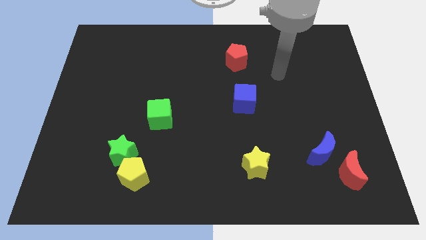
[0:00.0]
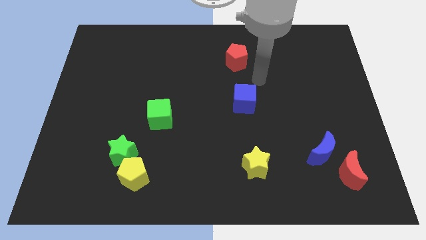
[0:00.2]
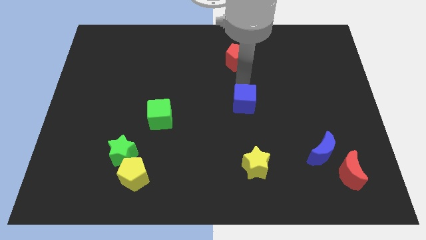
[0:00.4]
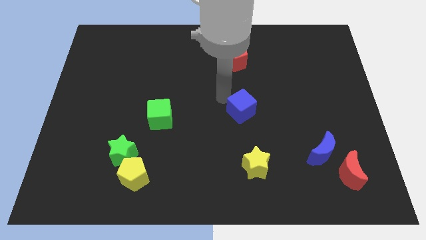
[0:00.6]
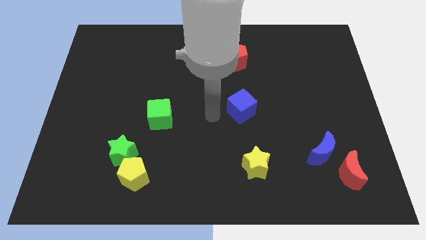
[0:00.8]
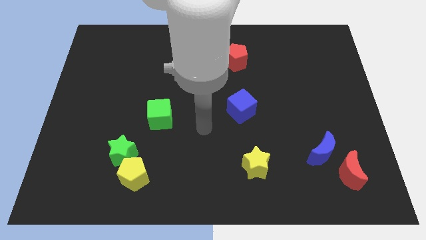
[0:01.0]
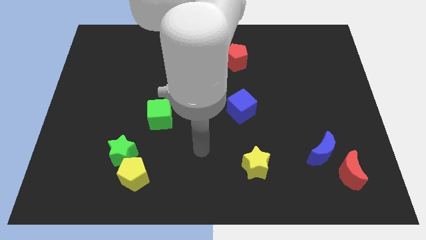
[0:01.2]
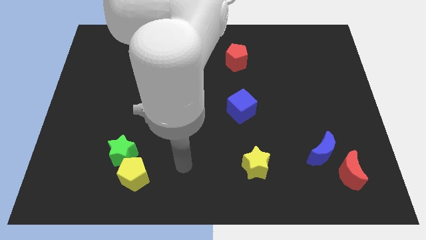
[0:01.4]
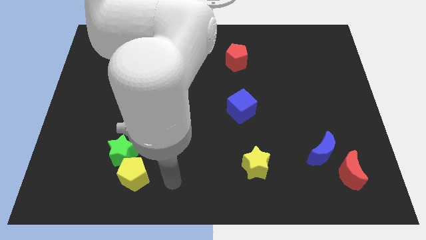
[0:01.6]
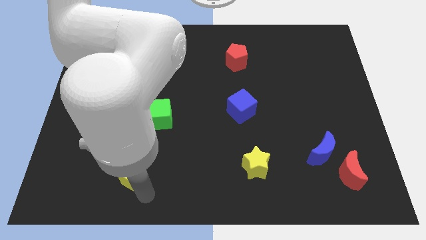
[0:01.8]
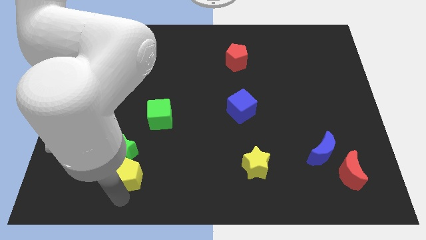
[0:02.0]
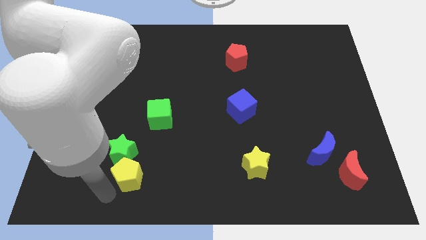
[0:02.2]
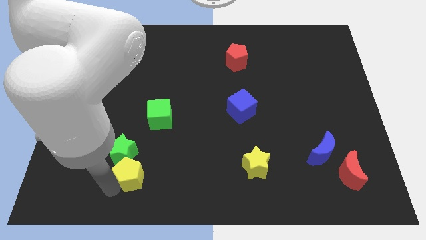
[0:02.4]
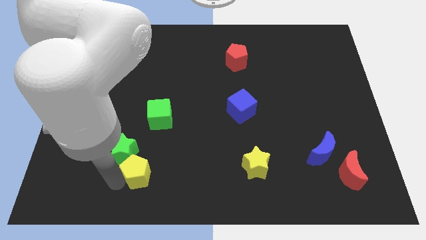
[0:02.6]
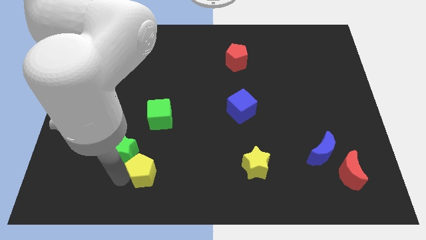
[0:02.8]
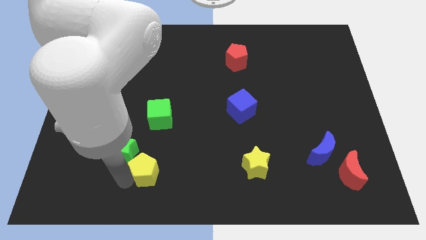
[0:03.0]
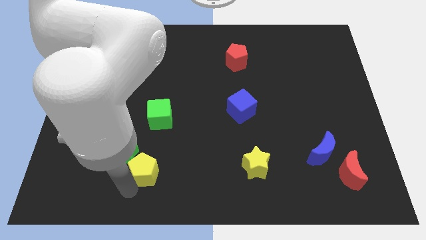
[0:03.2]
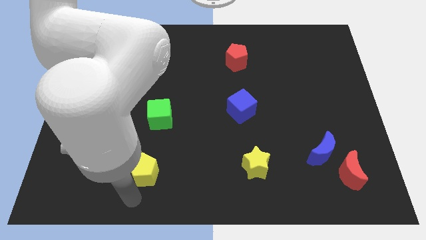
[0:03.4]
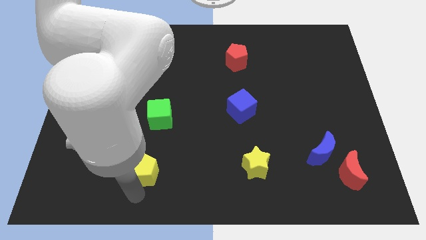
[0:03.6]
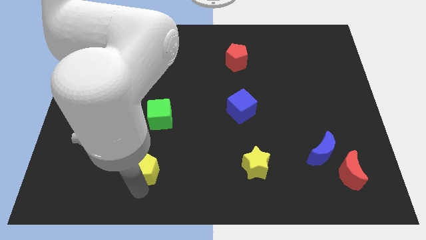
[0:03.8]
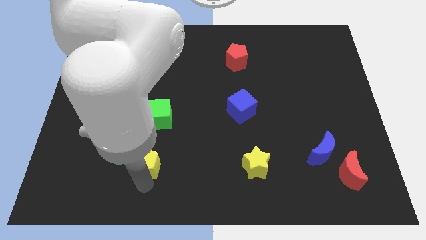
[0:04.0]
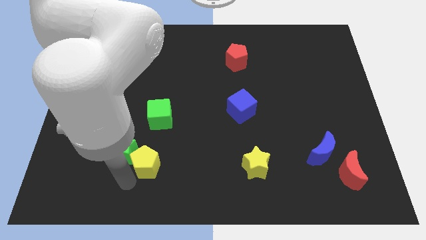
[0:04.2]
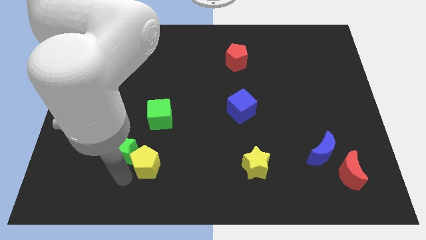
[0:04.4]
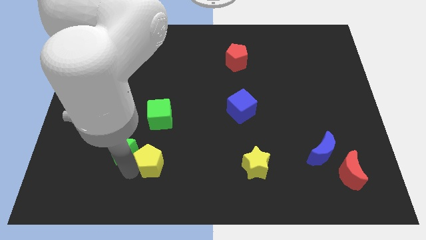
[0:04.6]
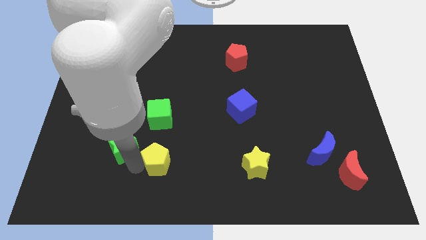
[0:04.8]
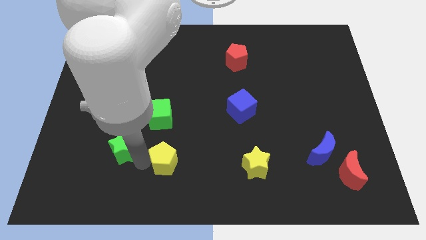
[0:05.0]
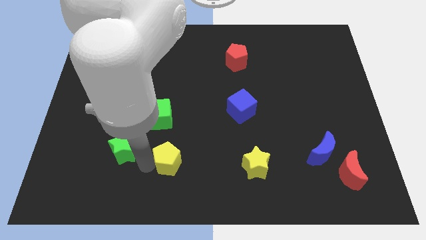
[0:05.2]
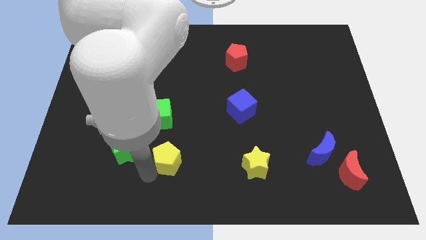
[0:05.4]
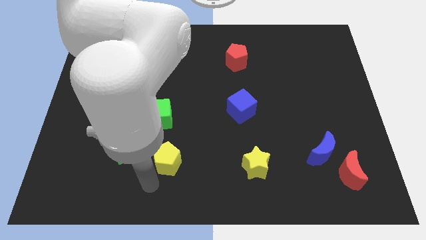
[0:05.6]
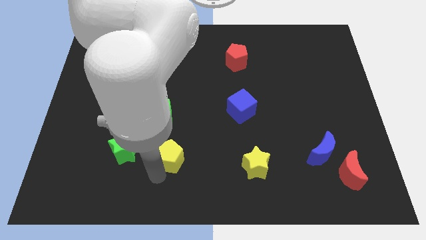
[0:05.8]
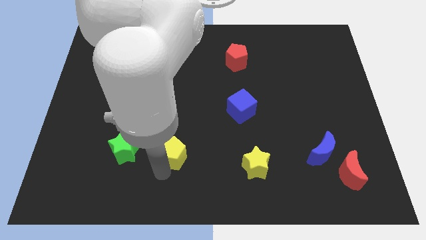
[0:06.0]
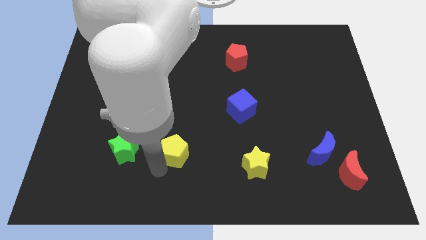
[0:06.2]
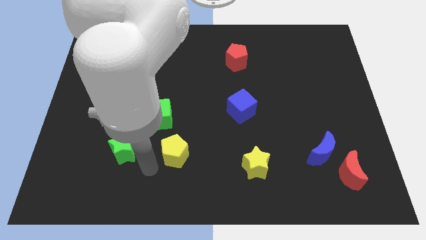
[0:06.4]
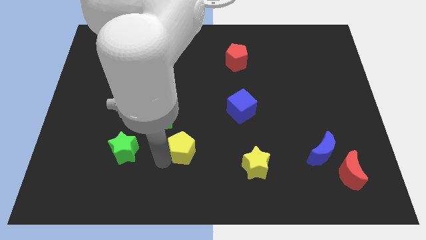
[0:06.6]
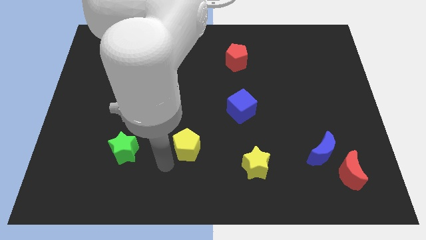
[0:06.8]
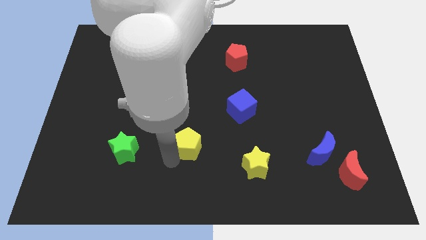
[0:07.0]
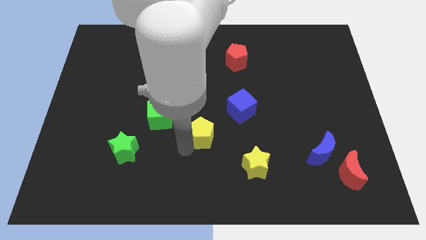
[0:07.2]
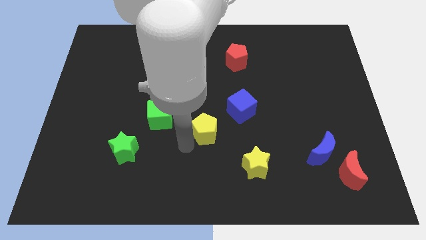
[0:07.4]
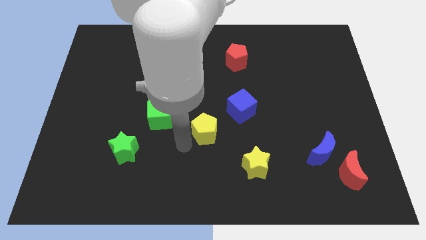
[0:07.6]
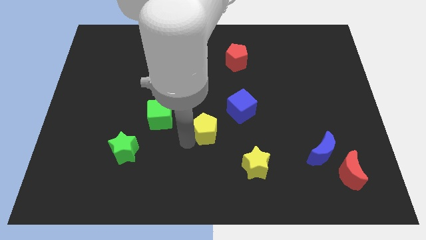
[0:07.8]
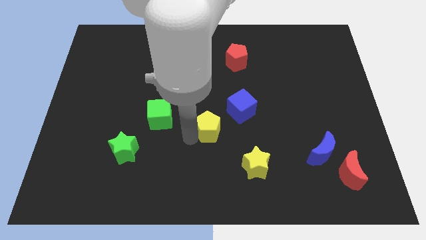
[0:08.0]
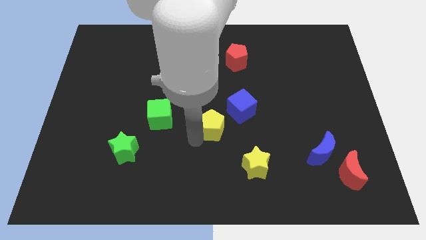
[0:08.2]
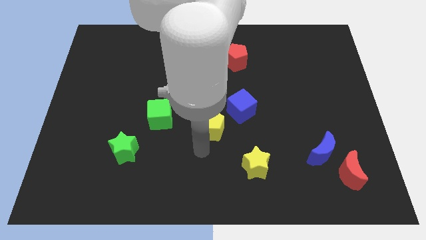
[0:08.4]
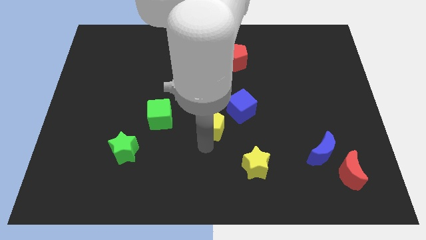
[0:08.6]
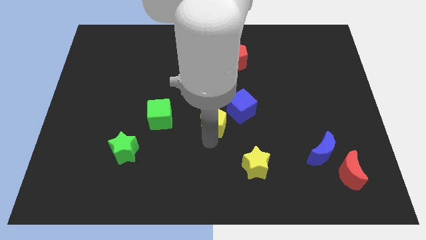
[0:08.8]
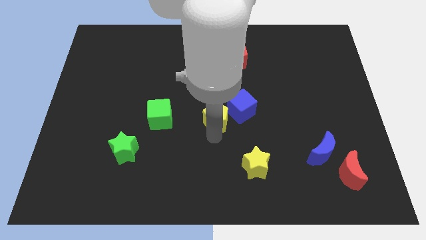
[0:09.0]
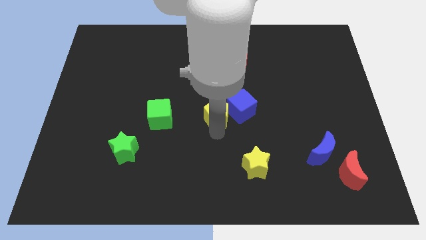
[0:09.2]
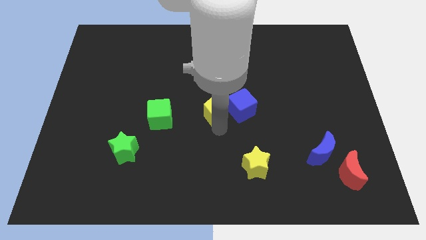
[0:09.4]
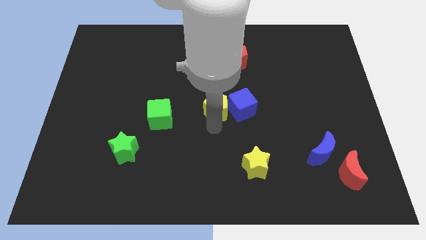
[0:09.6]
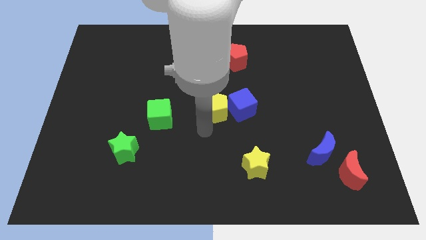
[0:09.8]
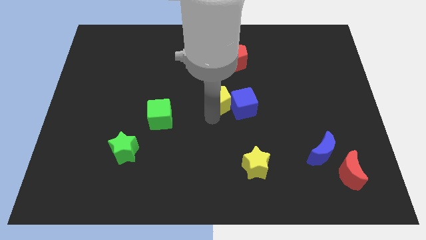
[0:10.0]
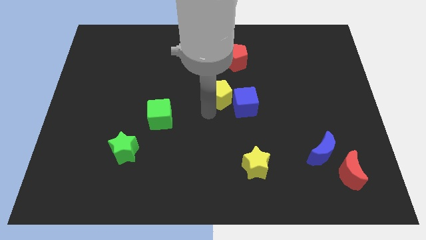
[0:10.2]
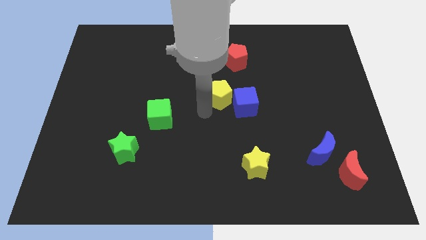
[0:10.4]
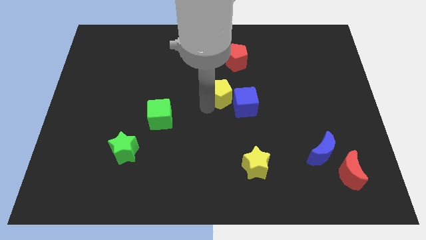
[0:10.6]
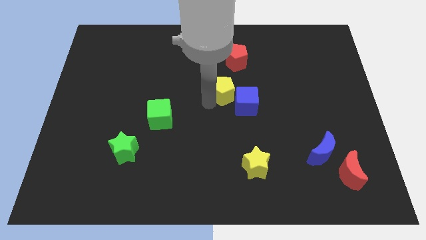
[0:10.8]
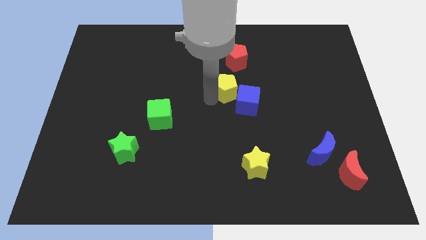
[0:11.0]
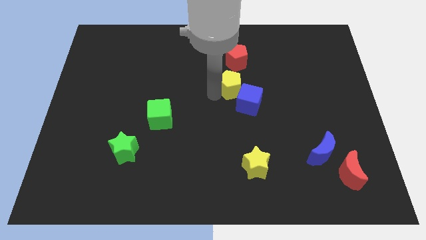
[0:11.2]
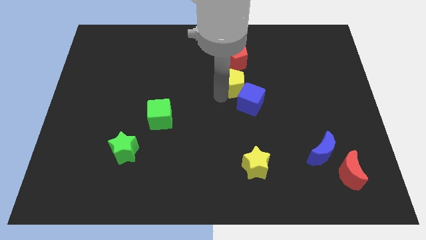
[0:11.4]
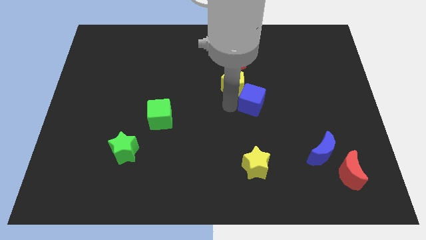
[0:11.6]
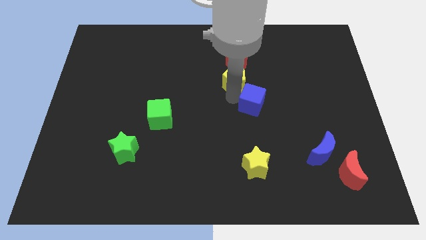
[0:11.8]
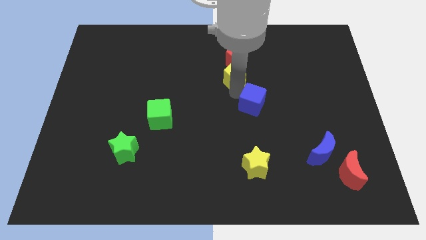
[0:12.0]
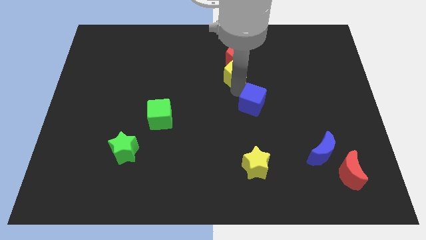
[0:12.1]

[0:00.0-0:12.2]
push the yellow pentagon close to the red pentagon

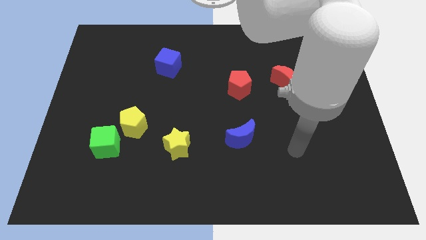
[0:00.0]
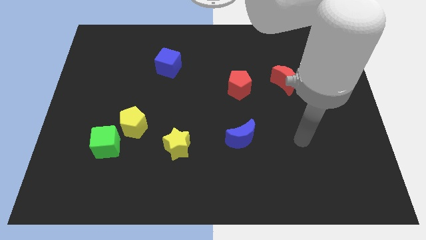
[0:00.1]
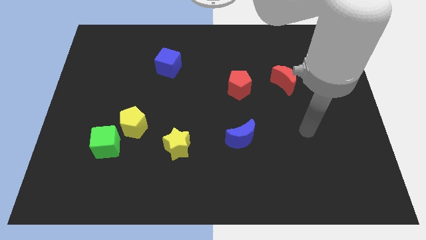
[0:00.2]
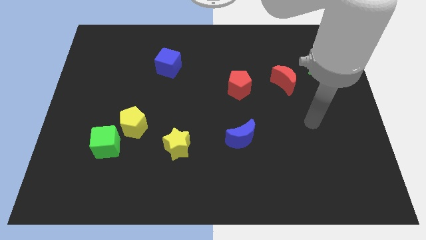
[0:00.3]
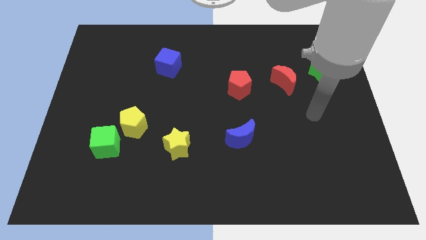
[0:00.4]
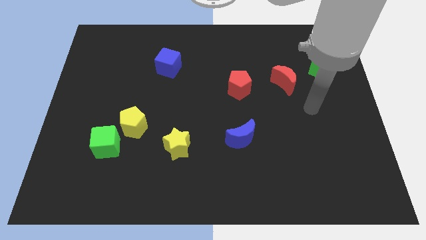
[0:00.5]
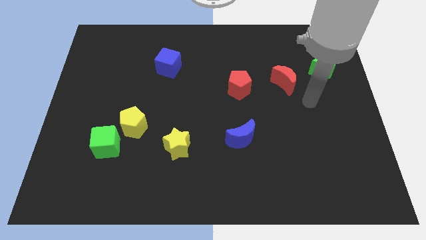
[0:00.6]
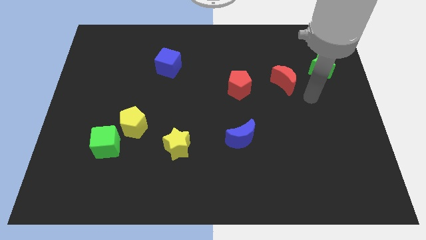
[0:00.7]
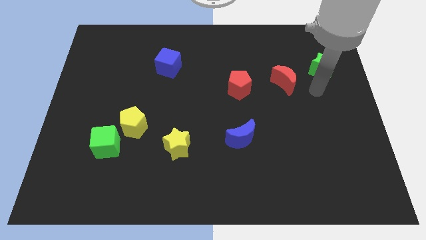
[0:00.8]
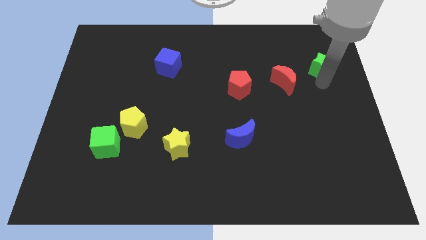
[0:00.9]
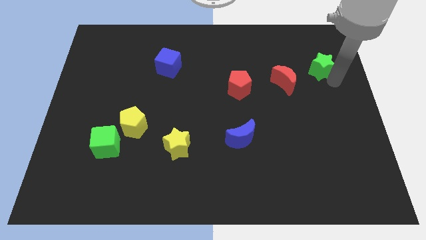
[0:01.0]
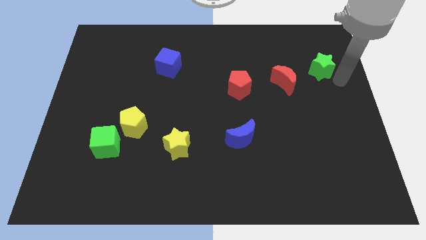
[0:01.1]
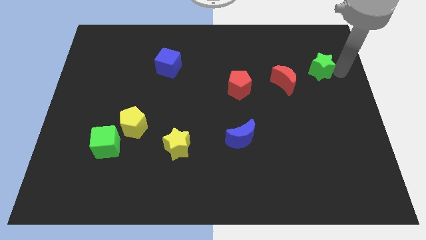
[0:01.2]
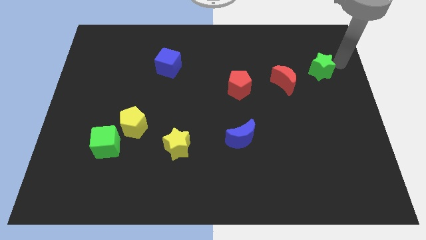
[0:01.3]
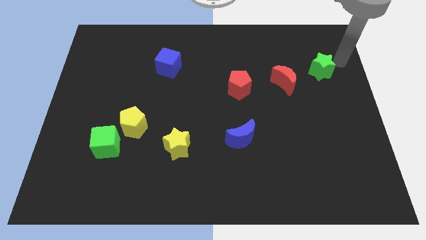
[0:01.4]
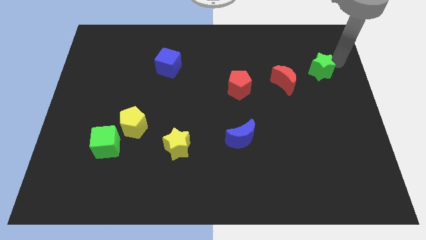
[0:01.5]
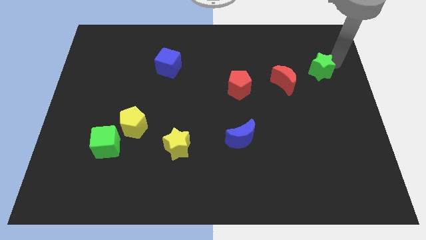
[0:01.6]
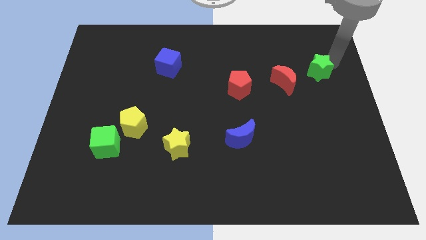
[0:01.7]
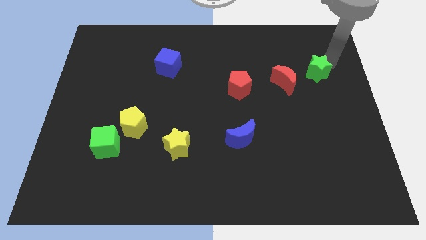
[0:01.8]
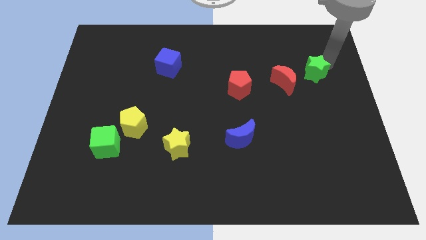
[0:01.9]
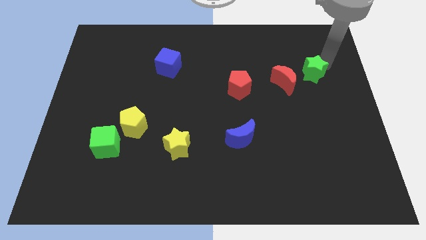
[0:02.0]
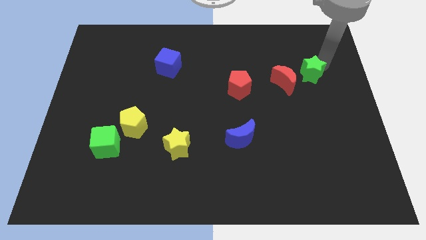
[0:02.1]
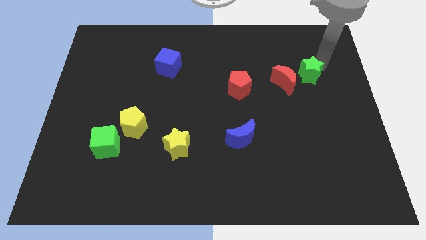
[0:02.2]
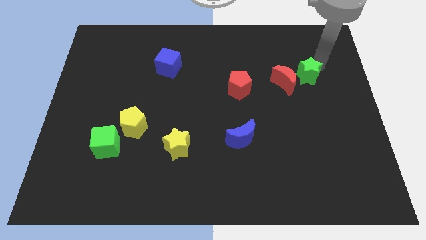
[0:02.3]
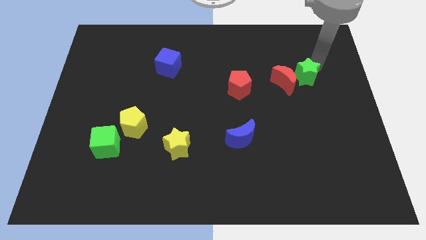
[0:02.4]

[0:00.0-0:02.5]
put the green star close to the red moon
